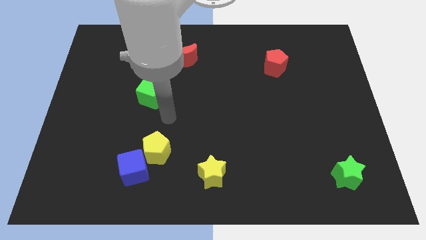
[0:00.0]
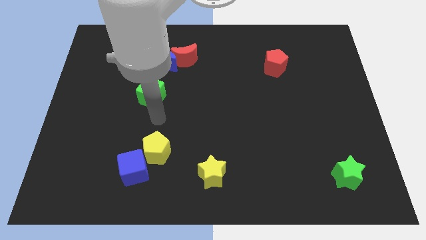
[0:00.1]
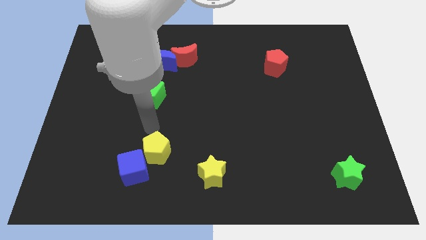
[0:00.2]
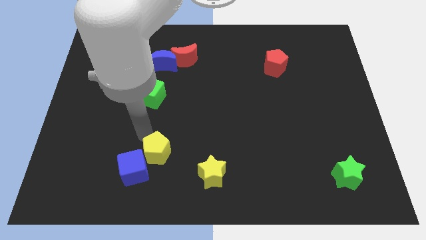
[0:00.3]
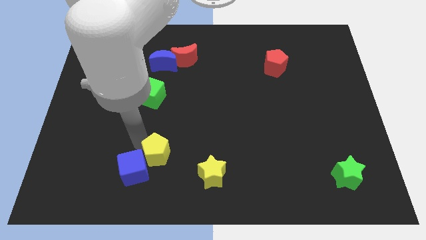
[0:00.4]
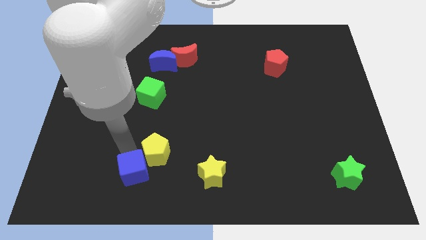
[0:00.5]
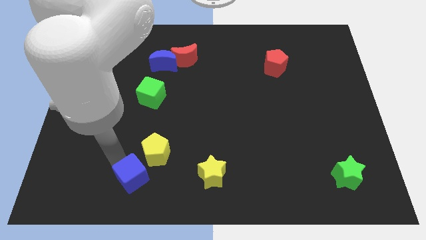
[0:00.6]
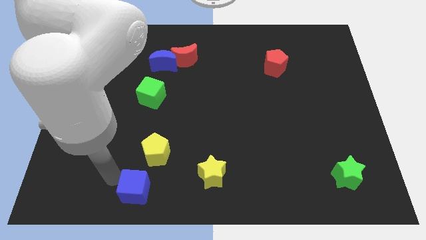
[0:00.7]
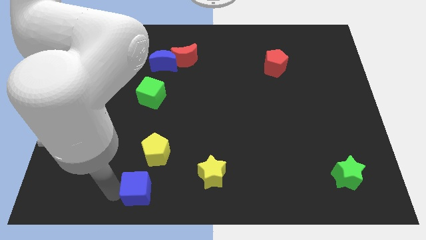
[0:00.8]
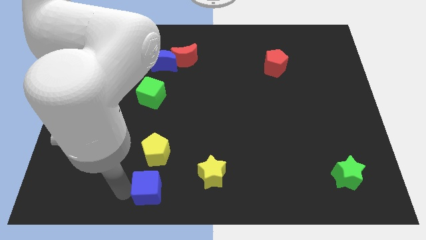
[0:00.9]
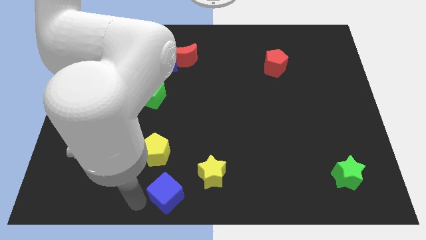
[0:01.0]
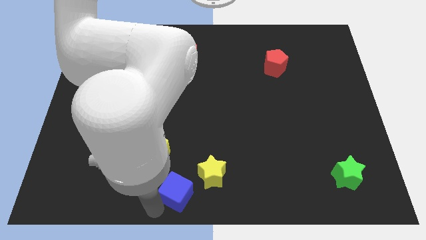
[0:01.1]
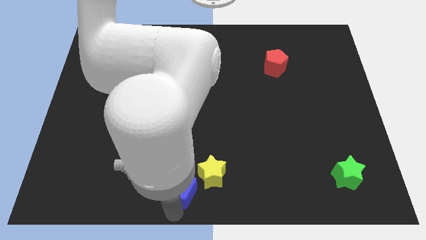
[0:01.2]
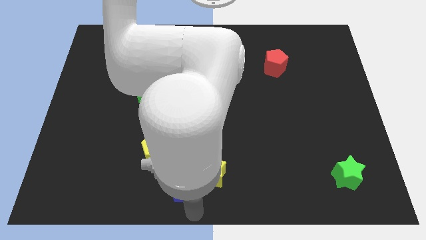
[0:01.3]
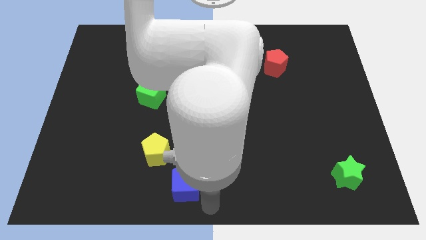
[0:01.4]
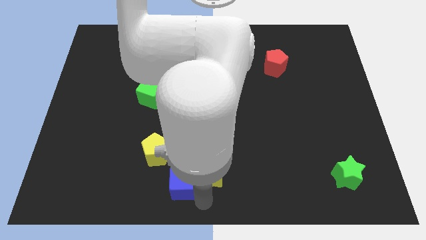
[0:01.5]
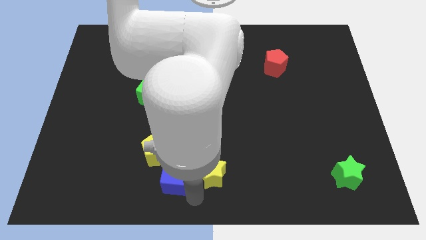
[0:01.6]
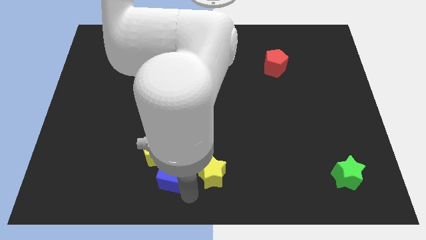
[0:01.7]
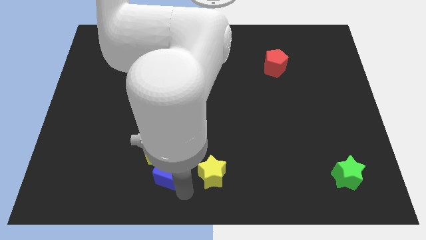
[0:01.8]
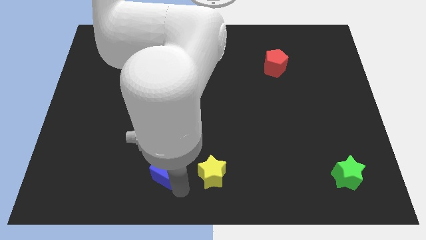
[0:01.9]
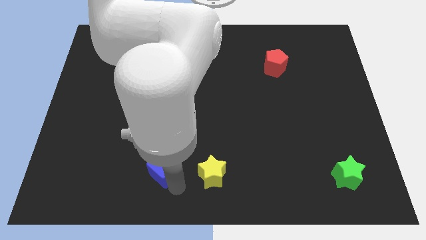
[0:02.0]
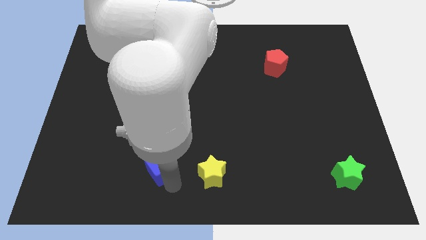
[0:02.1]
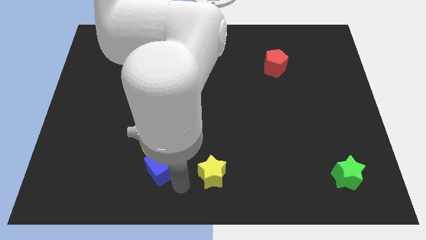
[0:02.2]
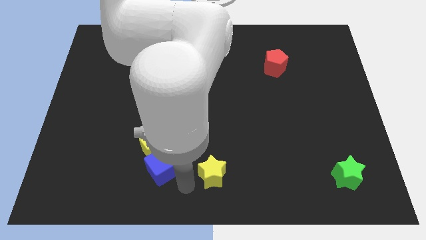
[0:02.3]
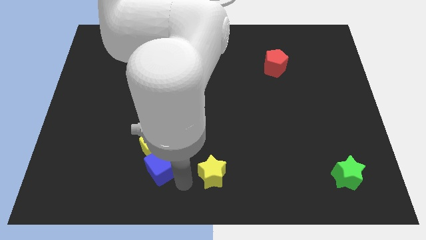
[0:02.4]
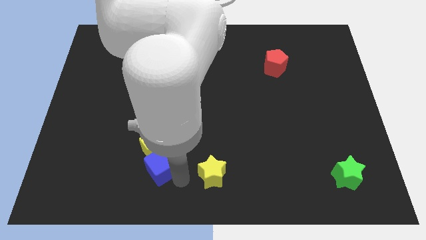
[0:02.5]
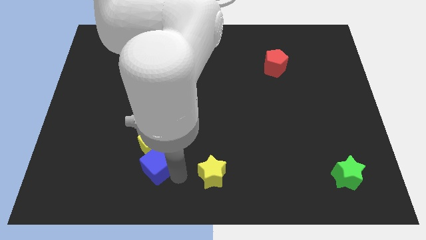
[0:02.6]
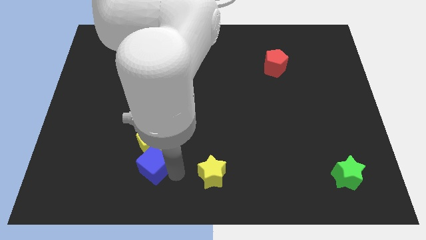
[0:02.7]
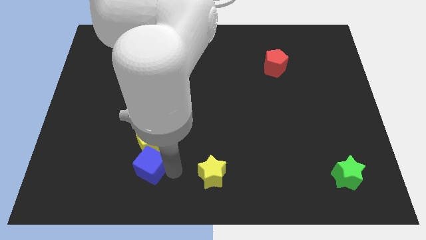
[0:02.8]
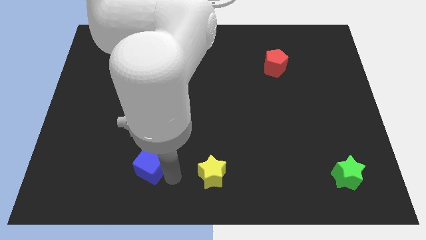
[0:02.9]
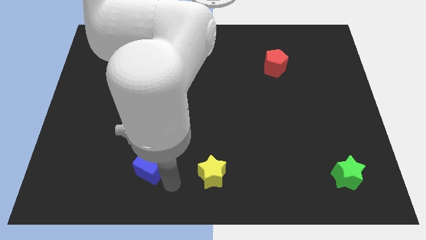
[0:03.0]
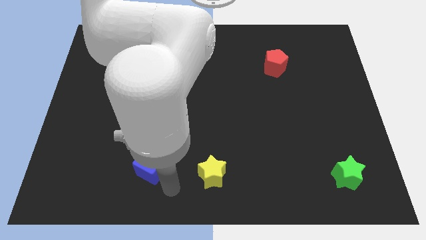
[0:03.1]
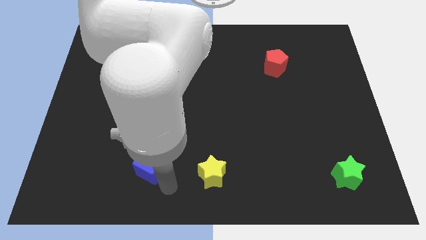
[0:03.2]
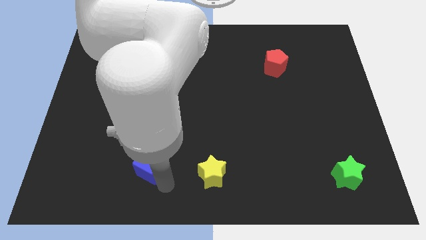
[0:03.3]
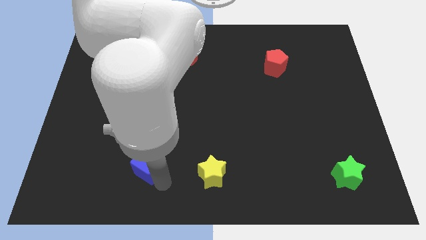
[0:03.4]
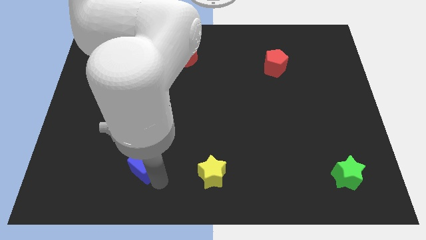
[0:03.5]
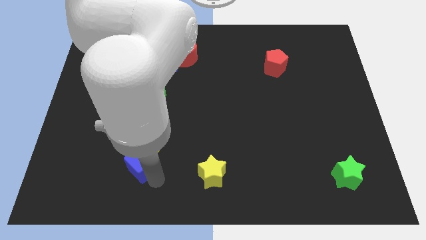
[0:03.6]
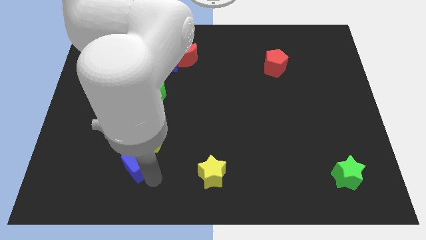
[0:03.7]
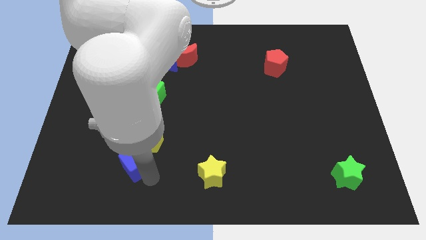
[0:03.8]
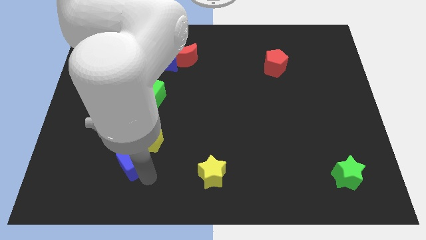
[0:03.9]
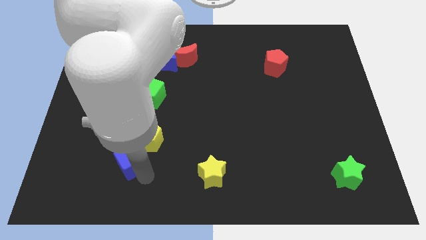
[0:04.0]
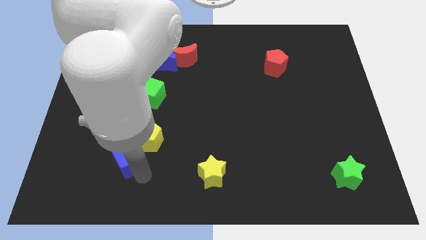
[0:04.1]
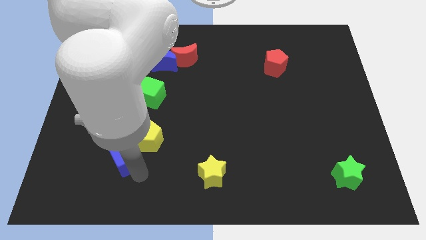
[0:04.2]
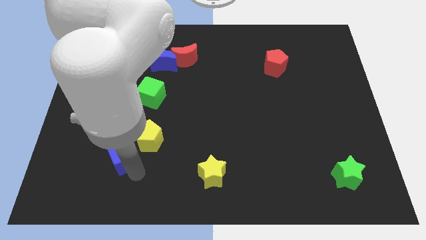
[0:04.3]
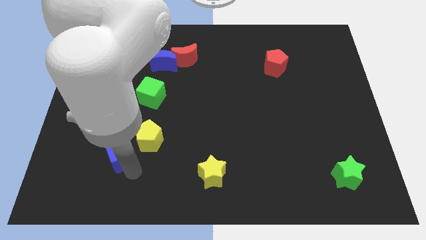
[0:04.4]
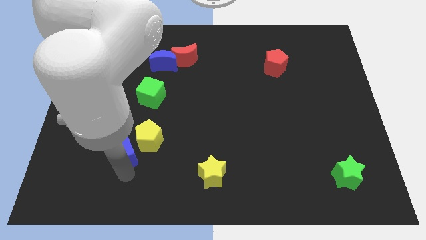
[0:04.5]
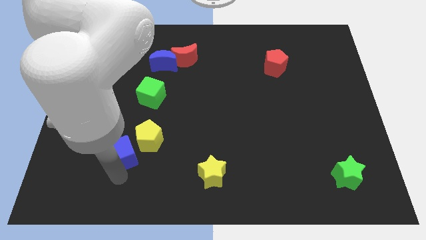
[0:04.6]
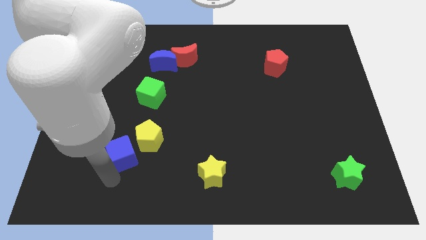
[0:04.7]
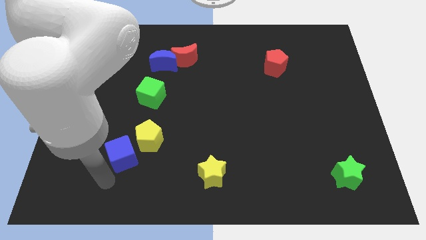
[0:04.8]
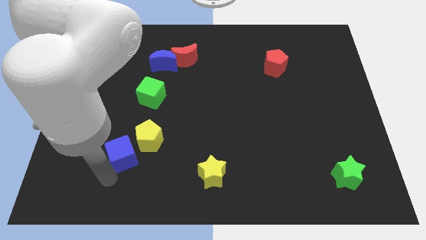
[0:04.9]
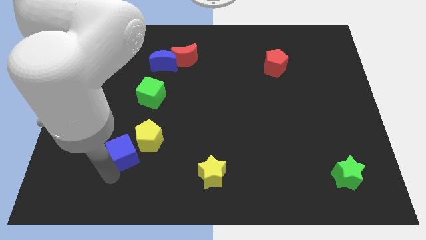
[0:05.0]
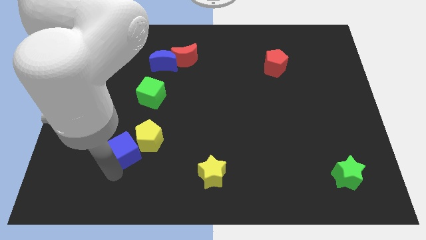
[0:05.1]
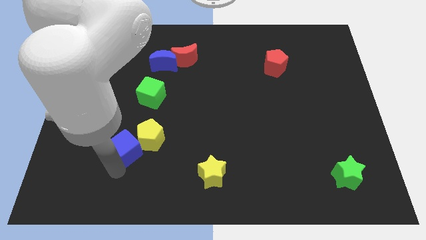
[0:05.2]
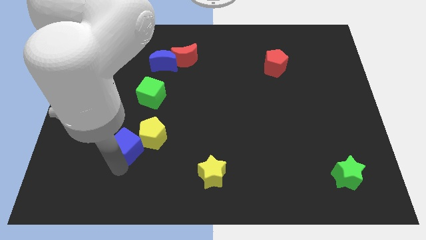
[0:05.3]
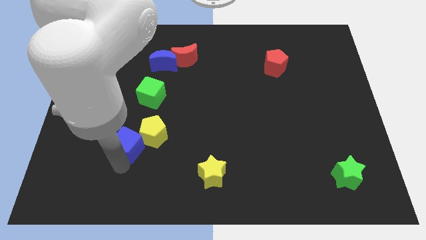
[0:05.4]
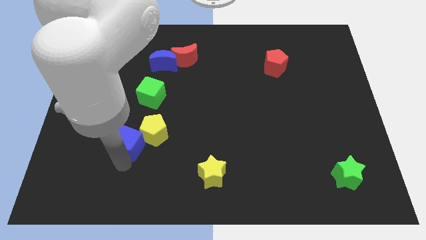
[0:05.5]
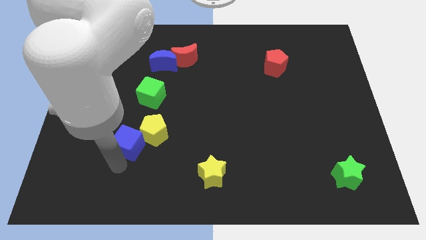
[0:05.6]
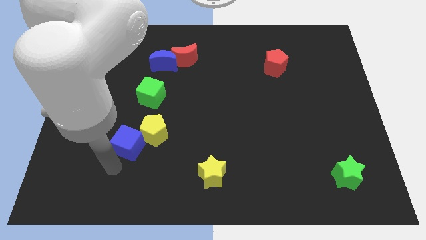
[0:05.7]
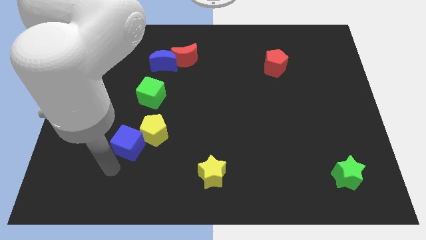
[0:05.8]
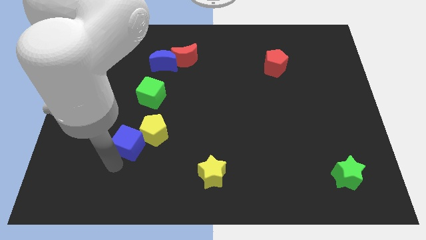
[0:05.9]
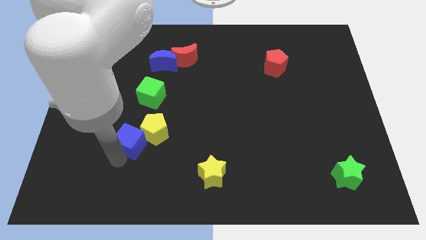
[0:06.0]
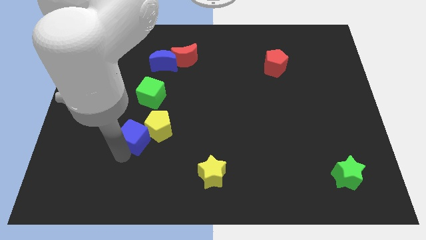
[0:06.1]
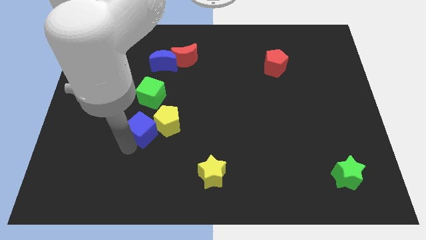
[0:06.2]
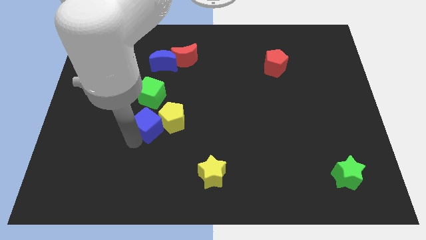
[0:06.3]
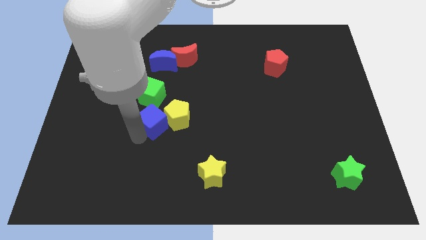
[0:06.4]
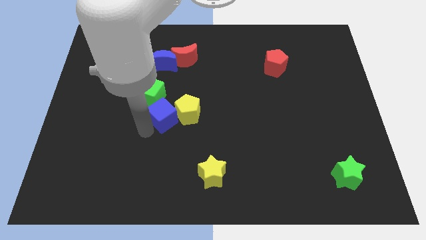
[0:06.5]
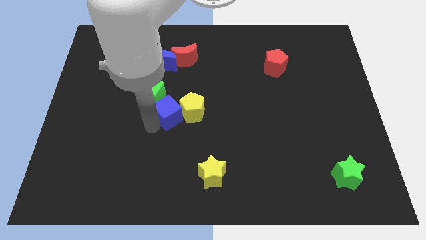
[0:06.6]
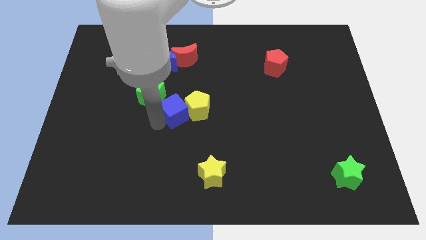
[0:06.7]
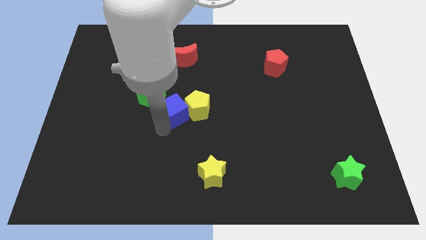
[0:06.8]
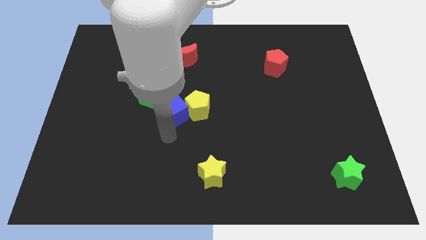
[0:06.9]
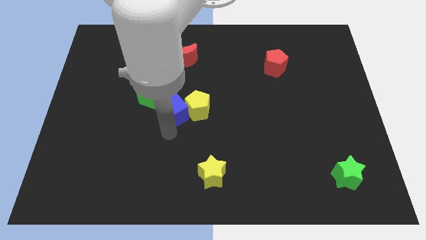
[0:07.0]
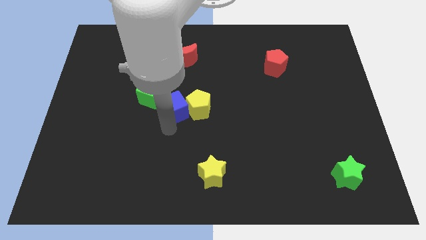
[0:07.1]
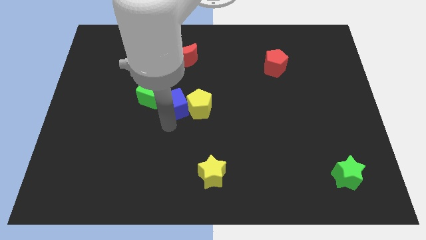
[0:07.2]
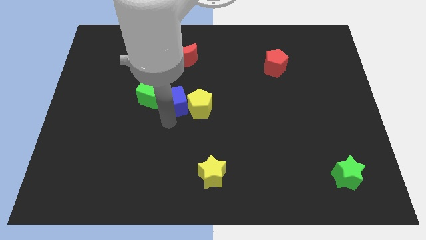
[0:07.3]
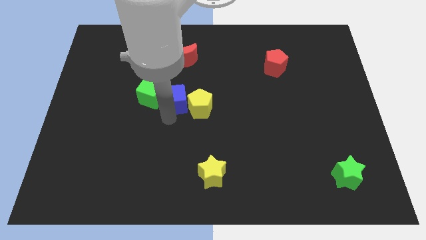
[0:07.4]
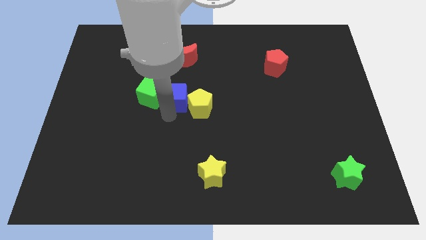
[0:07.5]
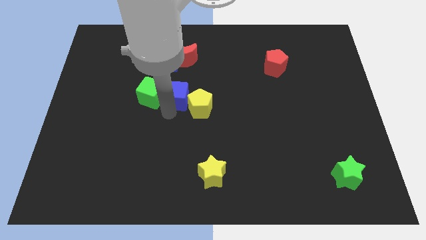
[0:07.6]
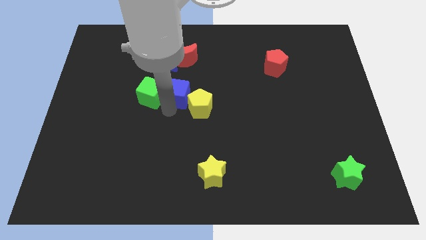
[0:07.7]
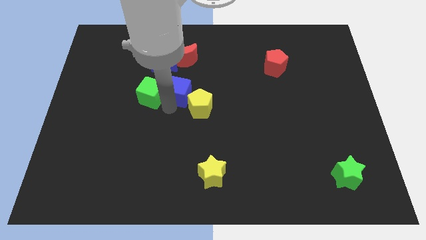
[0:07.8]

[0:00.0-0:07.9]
push the blue cube diagonally down and to the right of the blue moon

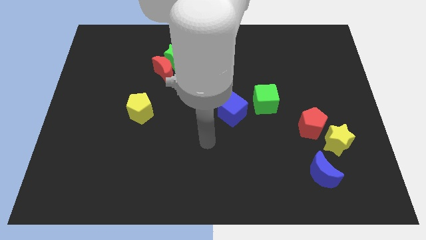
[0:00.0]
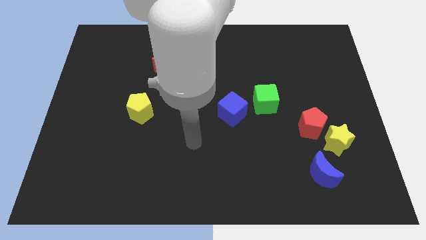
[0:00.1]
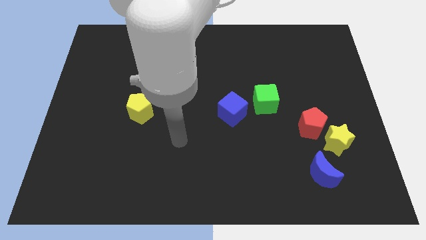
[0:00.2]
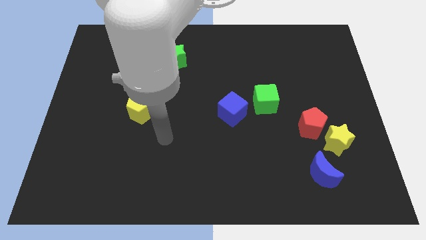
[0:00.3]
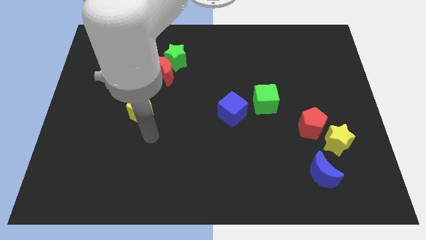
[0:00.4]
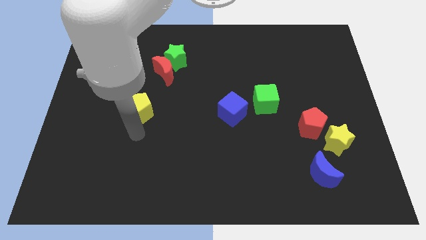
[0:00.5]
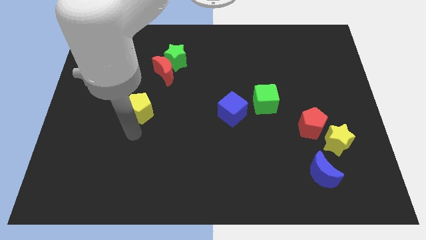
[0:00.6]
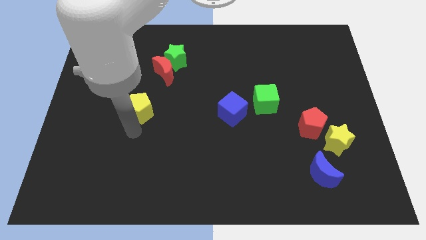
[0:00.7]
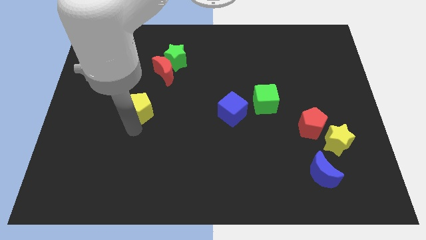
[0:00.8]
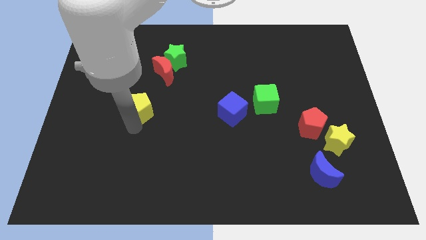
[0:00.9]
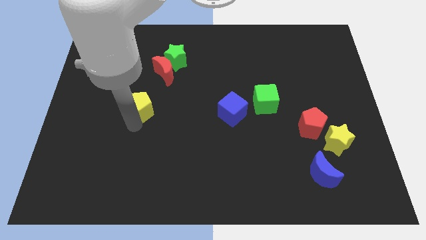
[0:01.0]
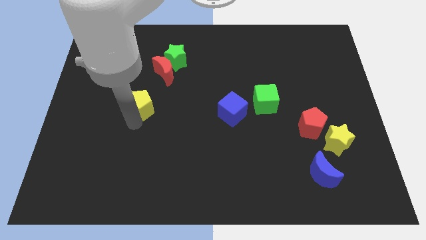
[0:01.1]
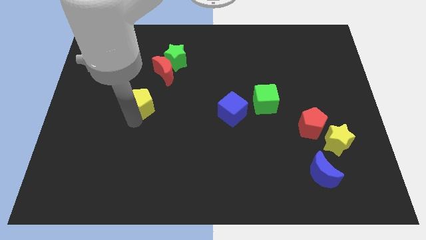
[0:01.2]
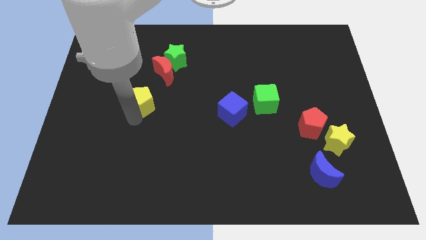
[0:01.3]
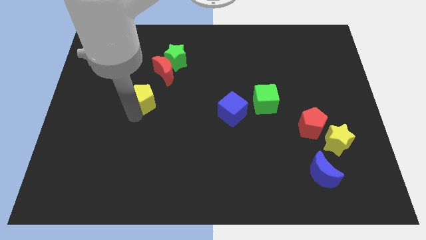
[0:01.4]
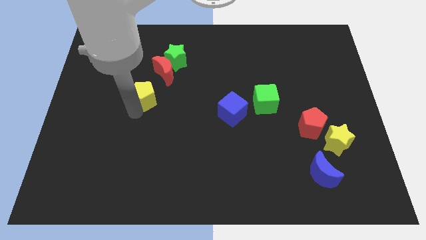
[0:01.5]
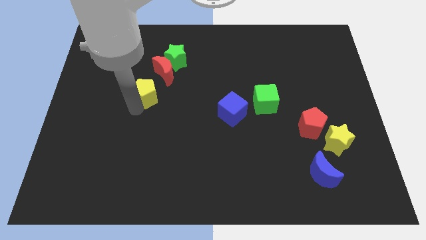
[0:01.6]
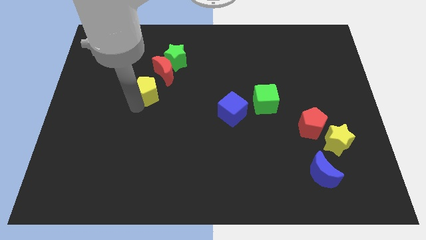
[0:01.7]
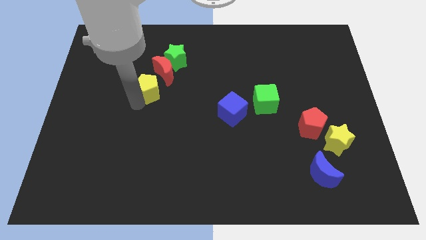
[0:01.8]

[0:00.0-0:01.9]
put the yellow pentagon to the bottom left of the green star
